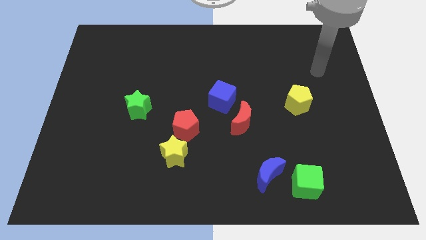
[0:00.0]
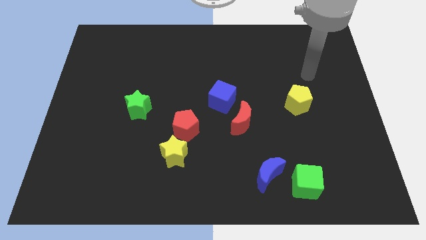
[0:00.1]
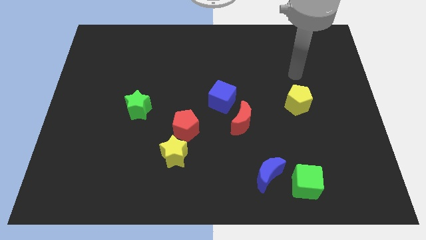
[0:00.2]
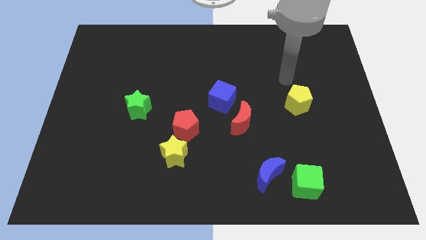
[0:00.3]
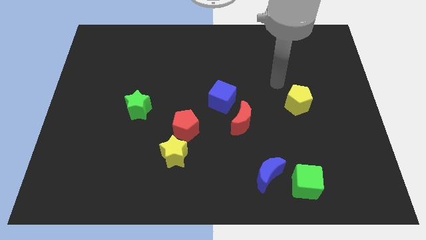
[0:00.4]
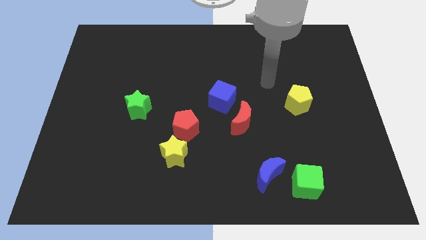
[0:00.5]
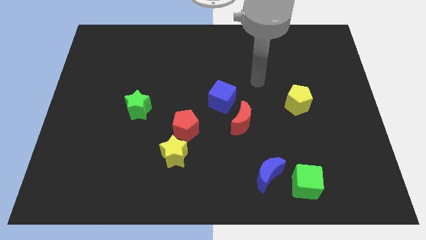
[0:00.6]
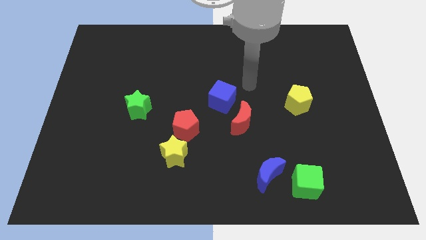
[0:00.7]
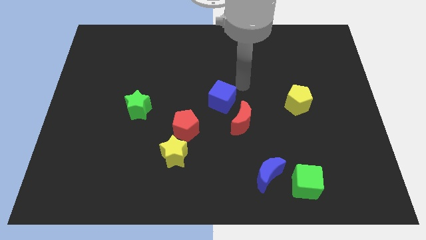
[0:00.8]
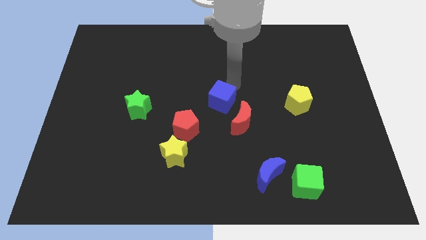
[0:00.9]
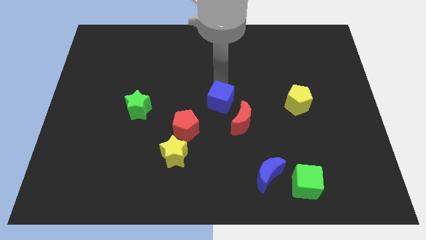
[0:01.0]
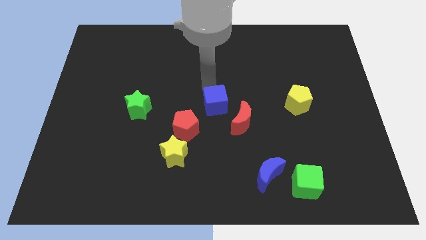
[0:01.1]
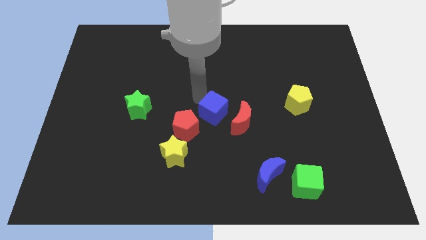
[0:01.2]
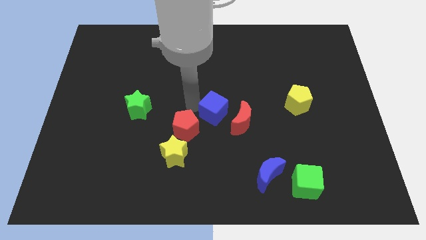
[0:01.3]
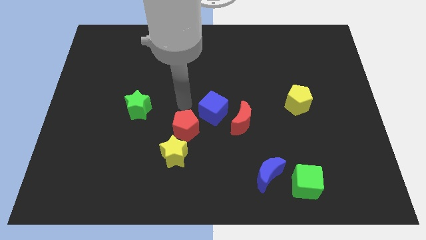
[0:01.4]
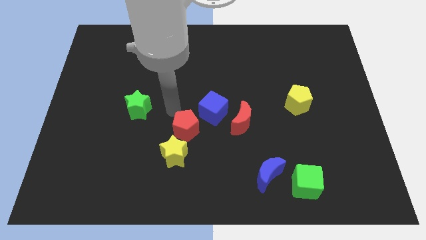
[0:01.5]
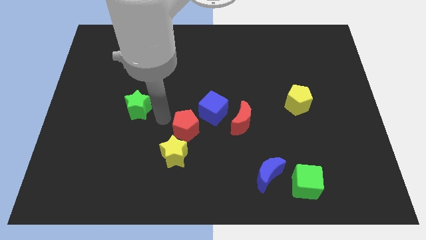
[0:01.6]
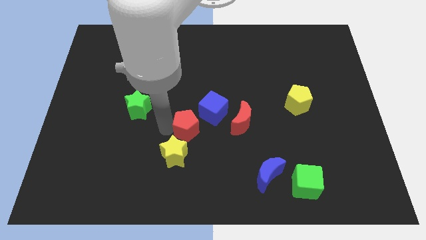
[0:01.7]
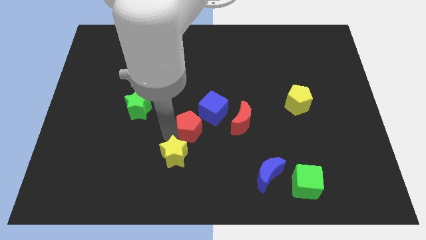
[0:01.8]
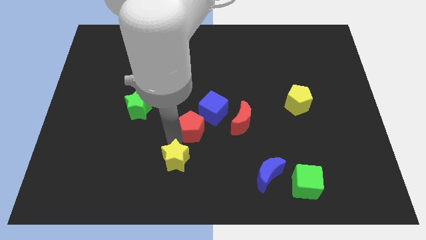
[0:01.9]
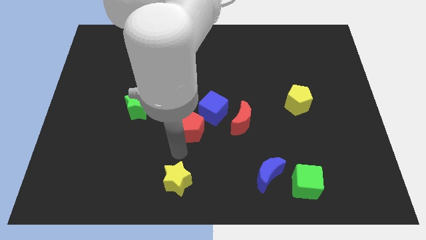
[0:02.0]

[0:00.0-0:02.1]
separate the red pentagon from the yellow star

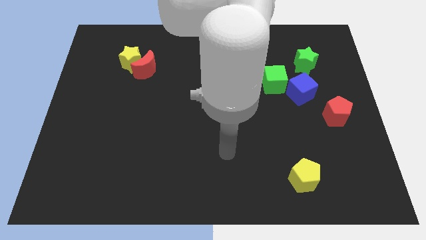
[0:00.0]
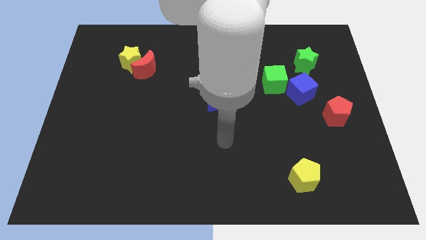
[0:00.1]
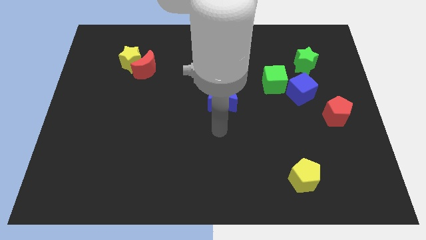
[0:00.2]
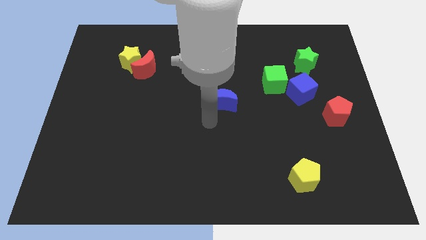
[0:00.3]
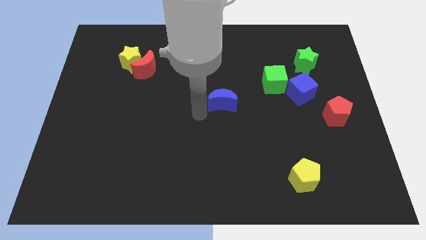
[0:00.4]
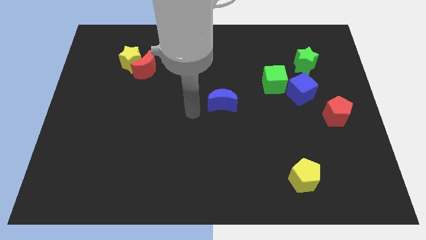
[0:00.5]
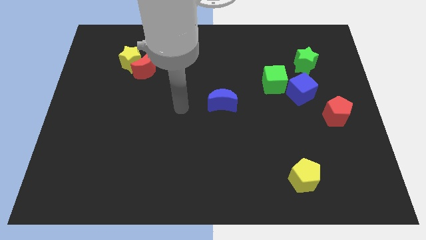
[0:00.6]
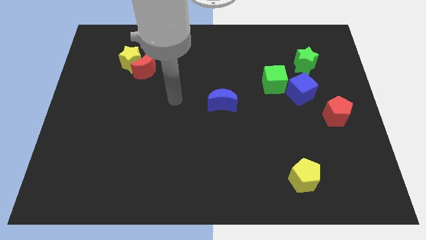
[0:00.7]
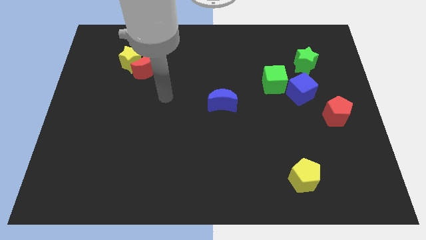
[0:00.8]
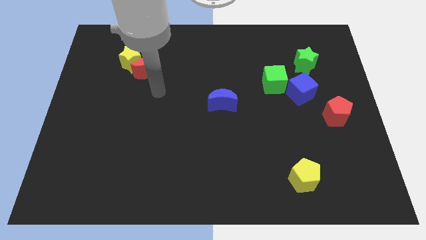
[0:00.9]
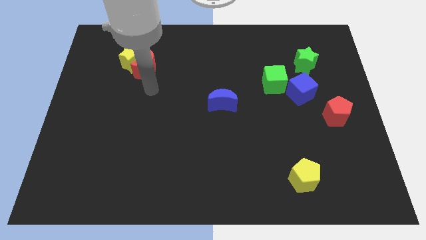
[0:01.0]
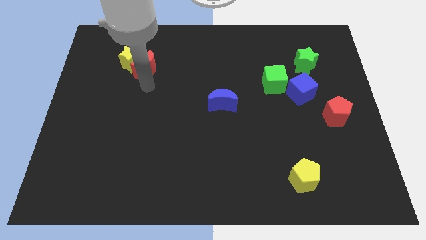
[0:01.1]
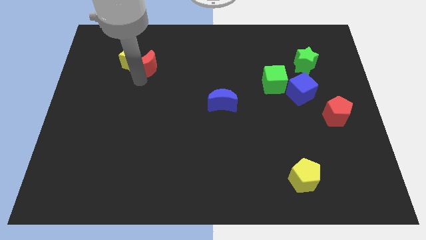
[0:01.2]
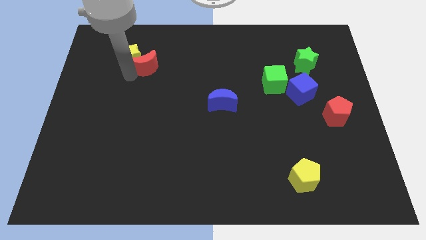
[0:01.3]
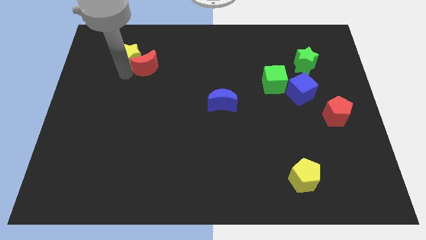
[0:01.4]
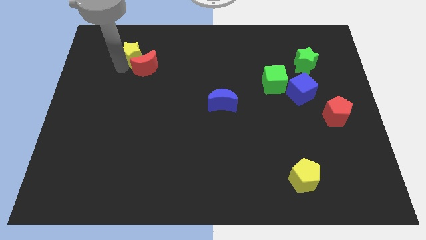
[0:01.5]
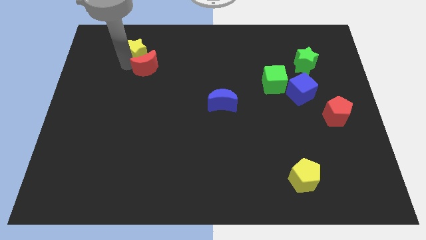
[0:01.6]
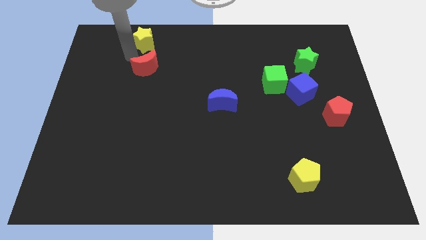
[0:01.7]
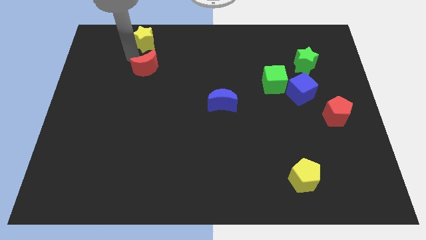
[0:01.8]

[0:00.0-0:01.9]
pull the red moon apart from the yellow star

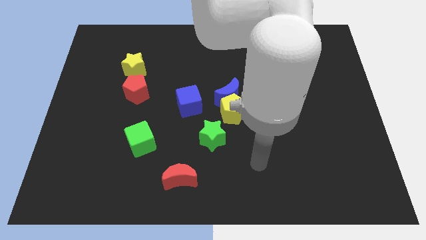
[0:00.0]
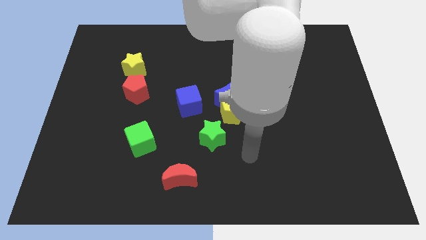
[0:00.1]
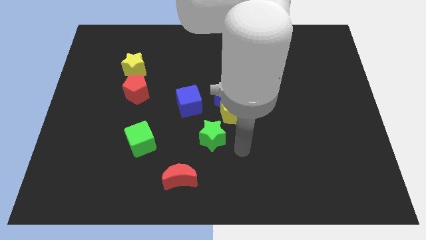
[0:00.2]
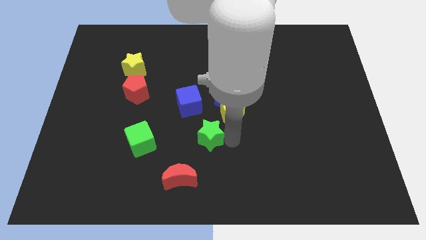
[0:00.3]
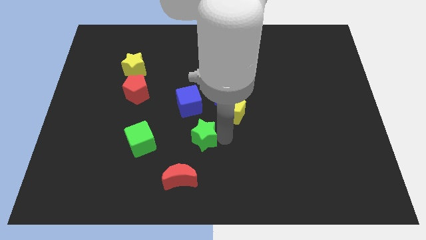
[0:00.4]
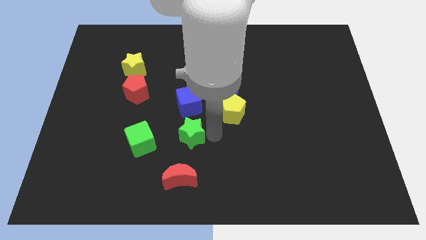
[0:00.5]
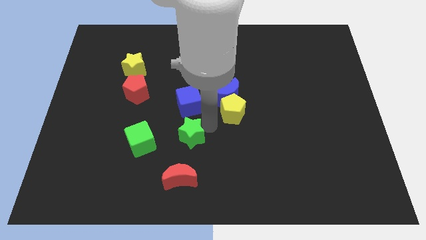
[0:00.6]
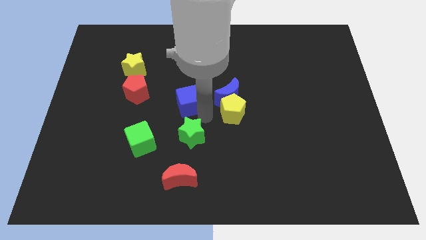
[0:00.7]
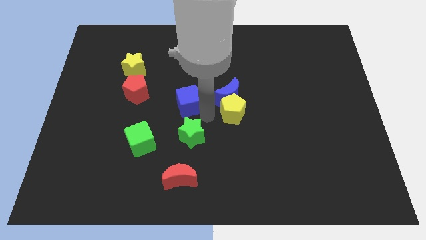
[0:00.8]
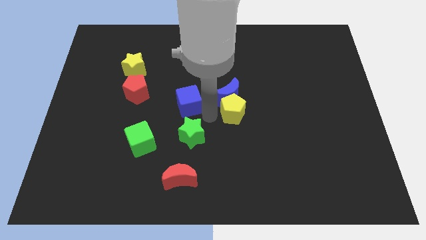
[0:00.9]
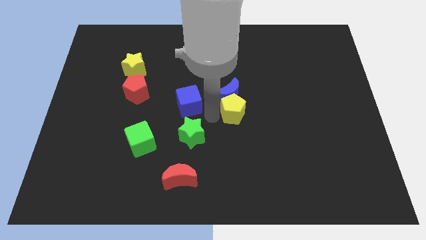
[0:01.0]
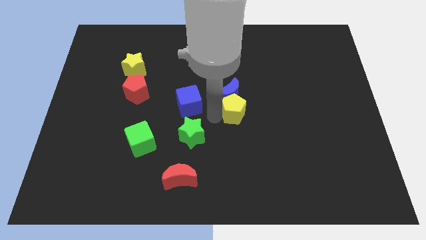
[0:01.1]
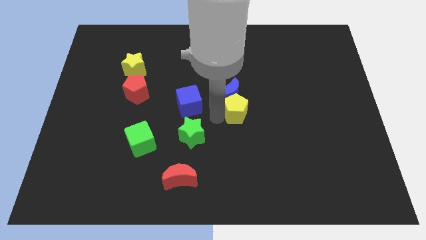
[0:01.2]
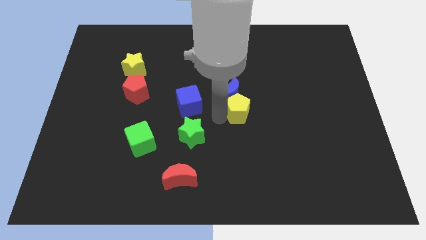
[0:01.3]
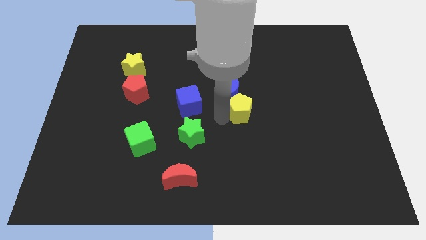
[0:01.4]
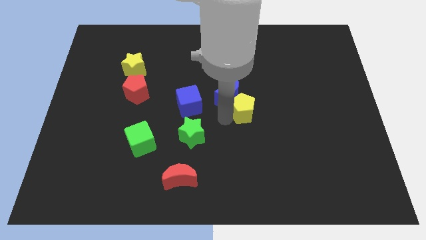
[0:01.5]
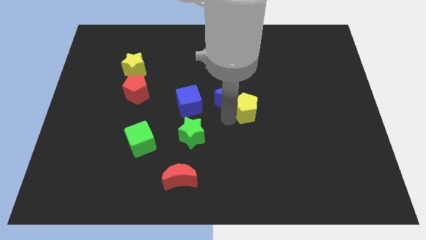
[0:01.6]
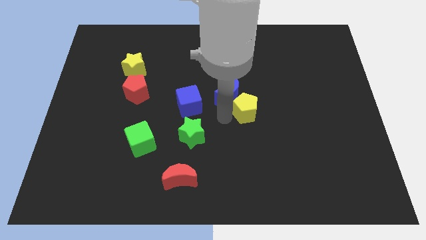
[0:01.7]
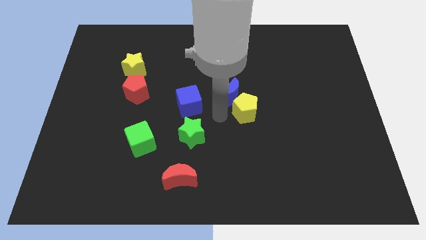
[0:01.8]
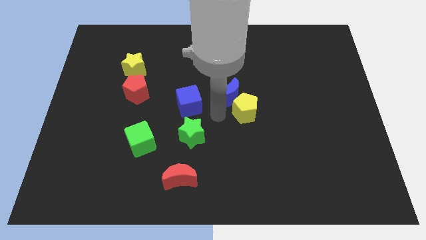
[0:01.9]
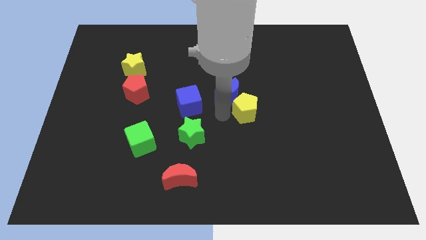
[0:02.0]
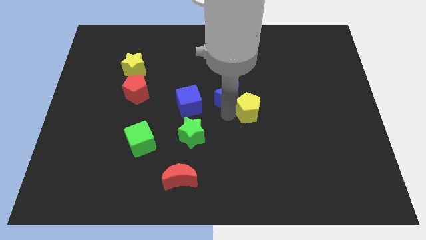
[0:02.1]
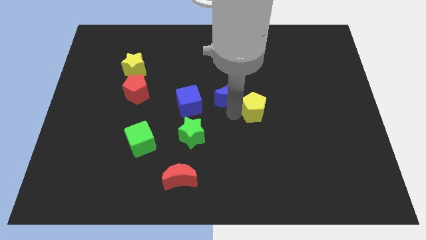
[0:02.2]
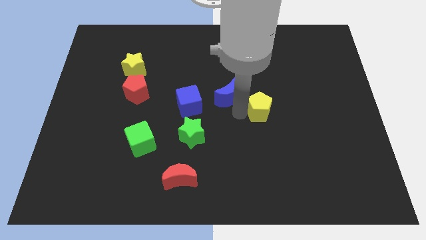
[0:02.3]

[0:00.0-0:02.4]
move the yellow pentagon away from the blue moon and green star

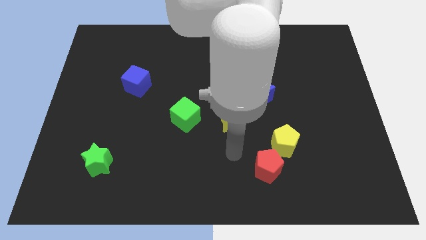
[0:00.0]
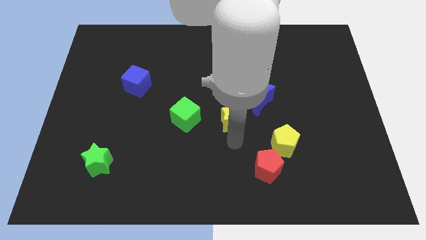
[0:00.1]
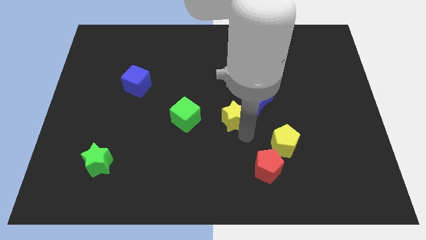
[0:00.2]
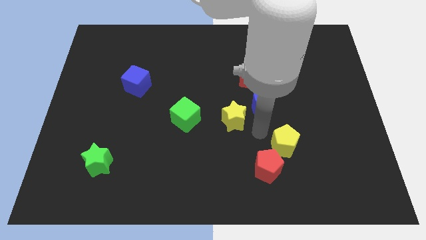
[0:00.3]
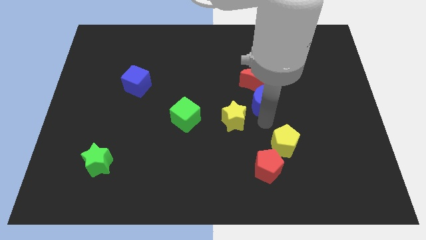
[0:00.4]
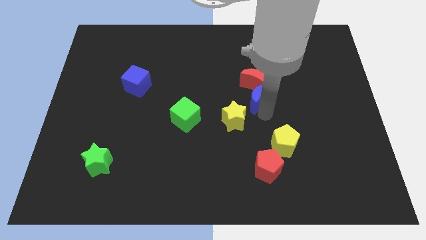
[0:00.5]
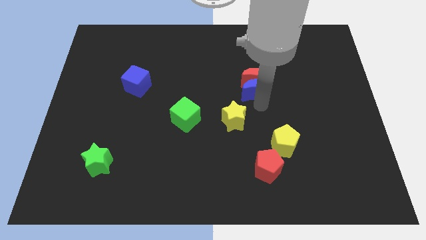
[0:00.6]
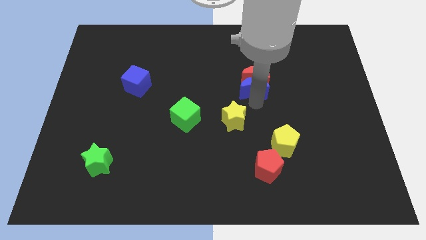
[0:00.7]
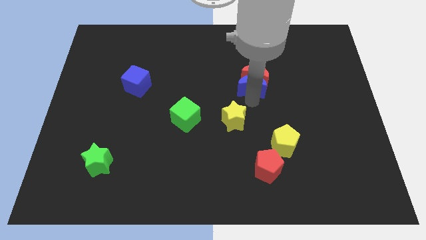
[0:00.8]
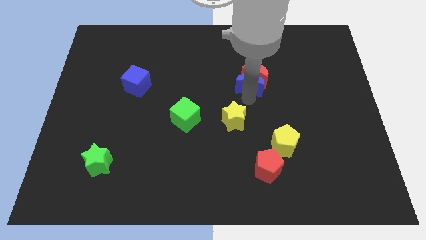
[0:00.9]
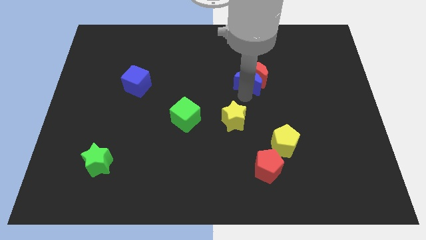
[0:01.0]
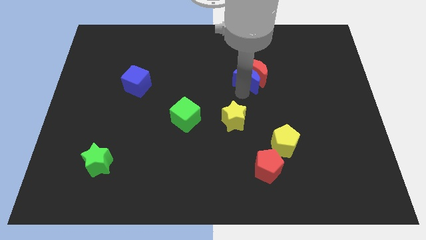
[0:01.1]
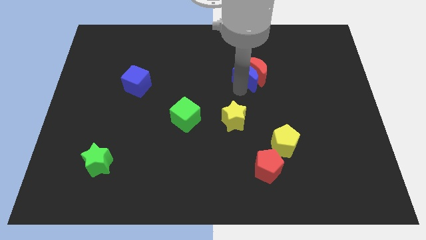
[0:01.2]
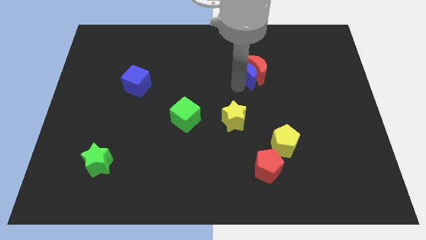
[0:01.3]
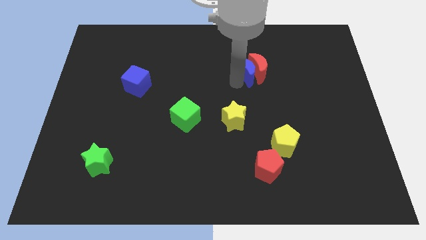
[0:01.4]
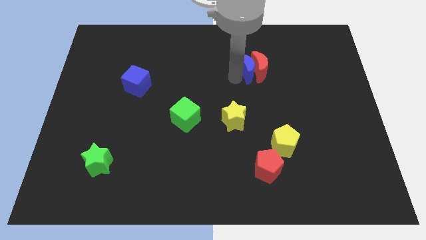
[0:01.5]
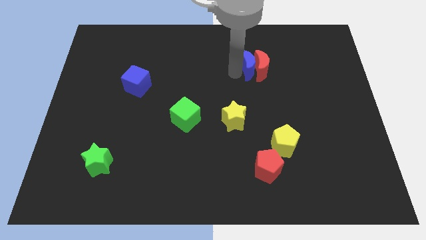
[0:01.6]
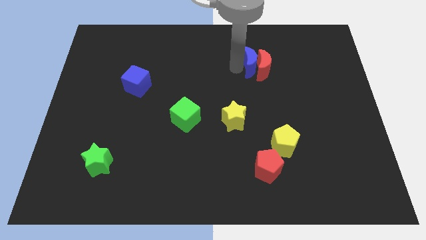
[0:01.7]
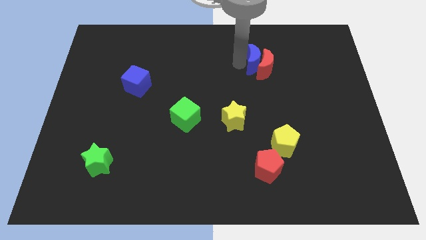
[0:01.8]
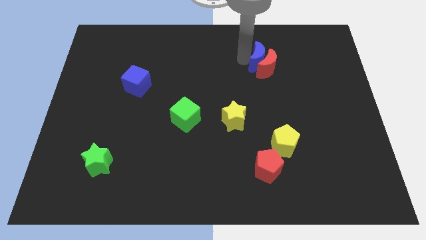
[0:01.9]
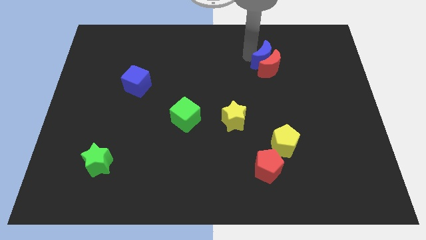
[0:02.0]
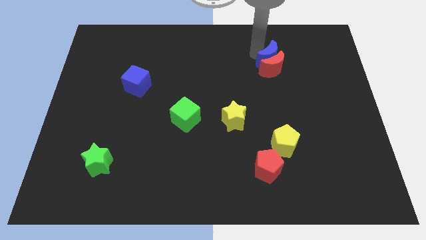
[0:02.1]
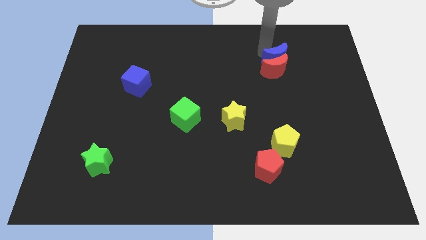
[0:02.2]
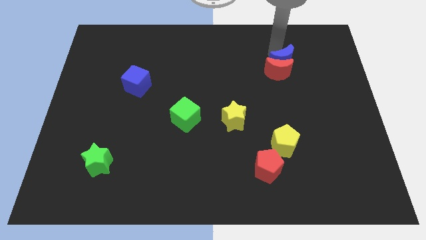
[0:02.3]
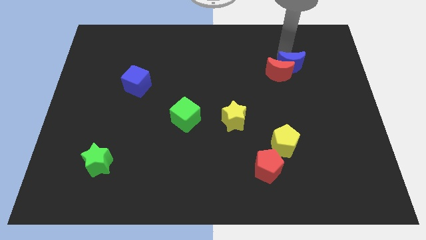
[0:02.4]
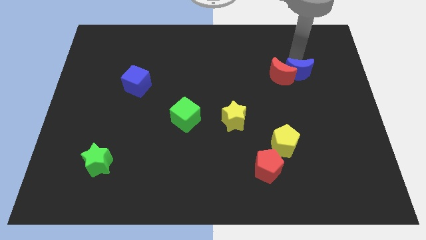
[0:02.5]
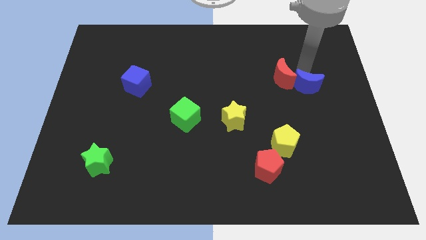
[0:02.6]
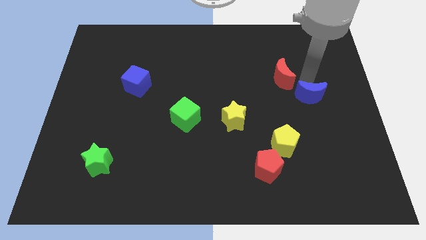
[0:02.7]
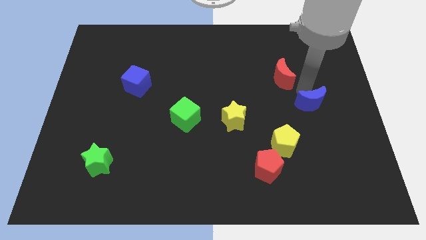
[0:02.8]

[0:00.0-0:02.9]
pull the red moon apart from the blue moon

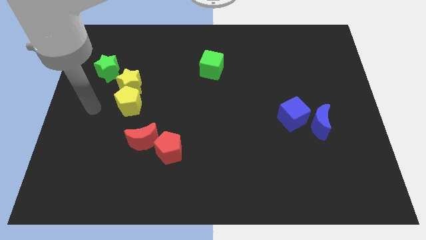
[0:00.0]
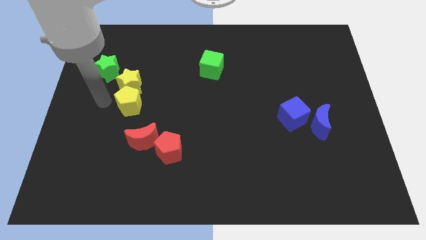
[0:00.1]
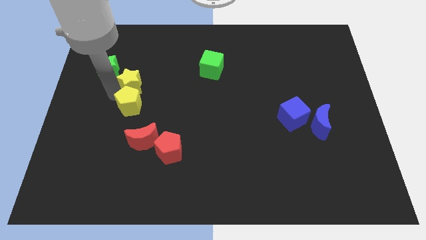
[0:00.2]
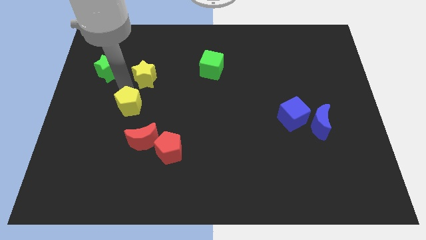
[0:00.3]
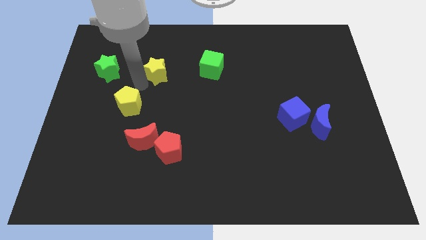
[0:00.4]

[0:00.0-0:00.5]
move the yellow pentagon away from the yellow star
